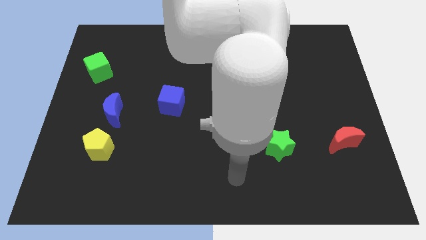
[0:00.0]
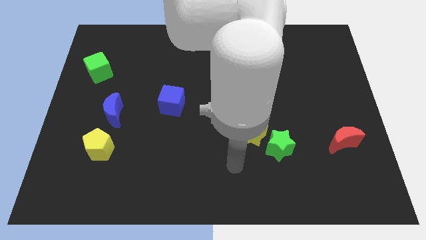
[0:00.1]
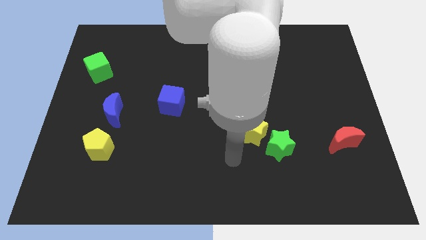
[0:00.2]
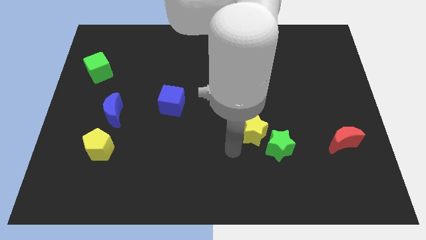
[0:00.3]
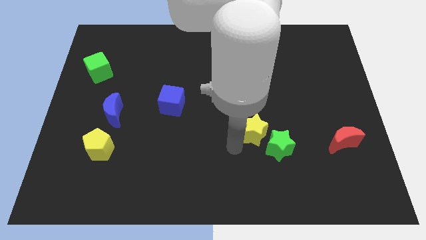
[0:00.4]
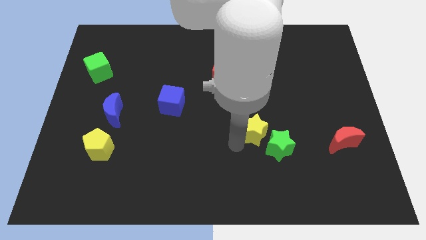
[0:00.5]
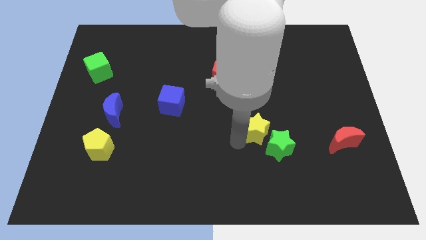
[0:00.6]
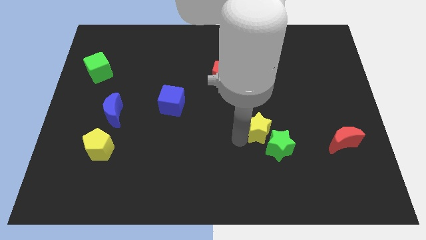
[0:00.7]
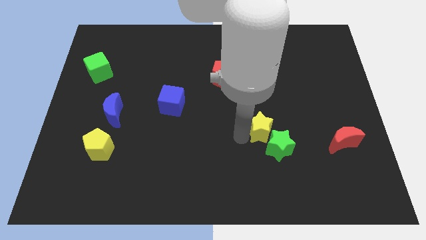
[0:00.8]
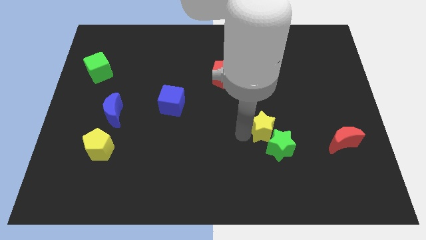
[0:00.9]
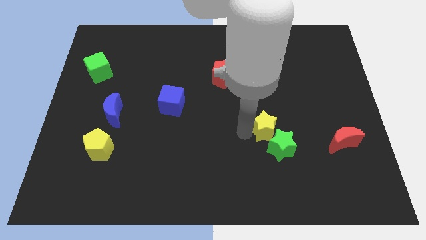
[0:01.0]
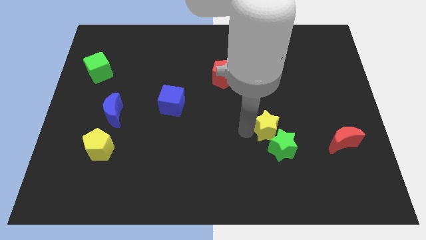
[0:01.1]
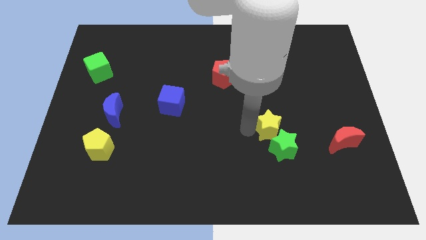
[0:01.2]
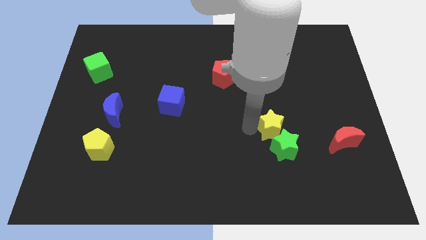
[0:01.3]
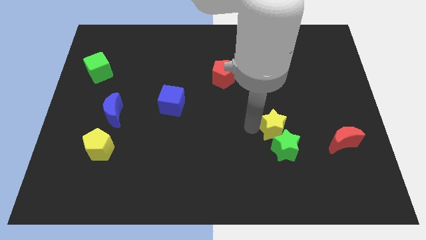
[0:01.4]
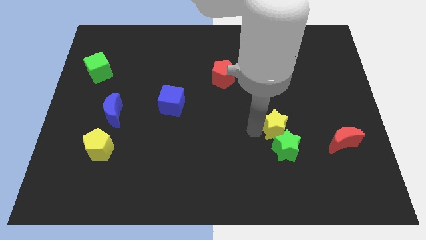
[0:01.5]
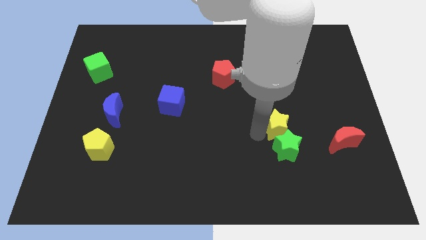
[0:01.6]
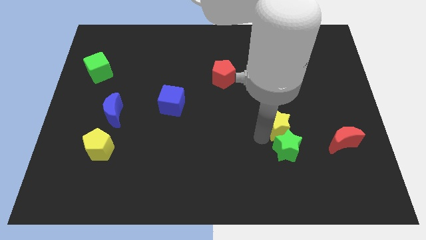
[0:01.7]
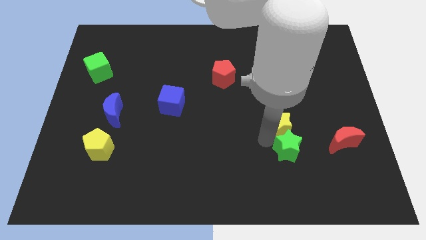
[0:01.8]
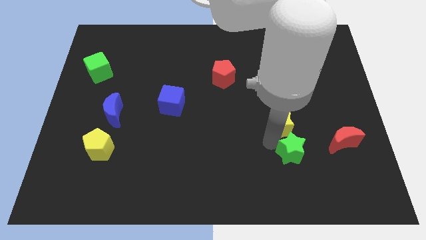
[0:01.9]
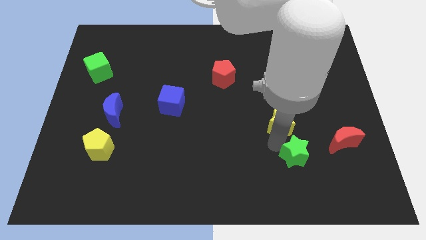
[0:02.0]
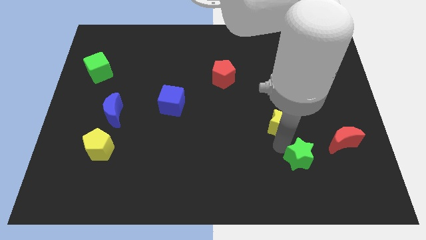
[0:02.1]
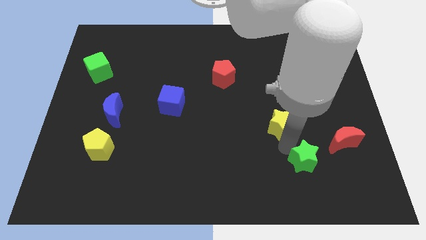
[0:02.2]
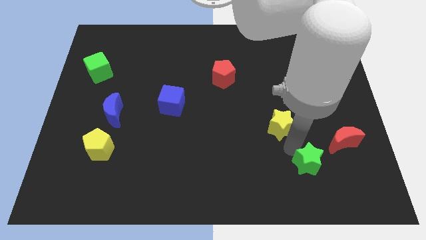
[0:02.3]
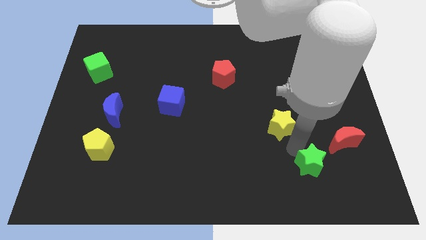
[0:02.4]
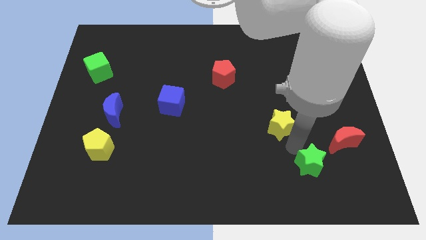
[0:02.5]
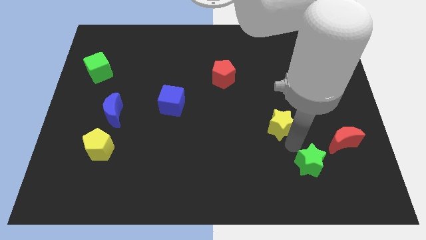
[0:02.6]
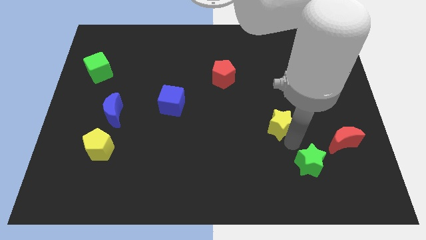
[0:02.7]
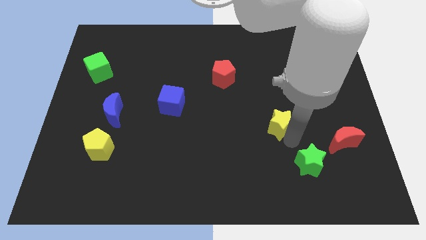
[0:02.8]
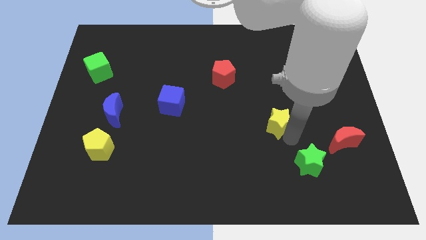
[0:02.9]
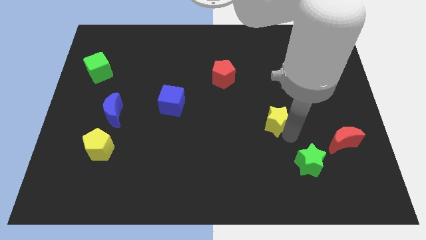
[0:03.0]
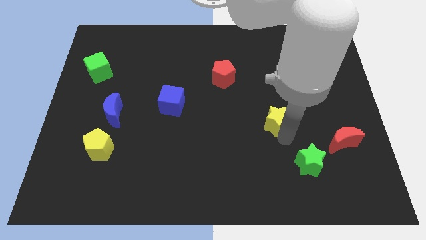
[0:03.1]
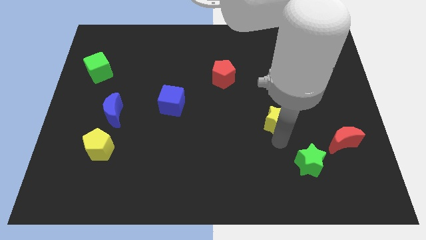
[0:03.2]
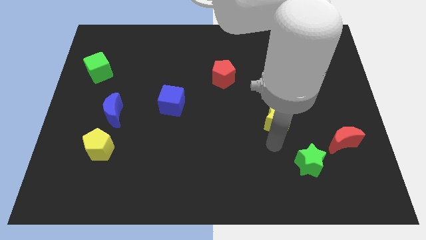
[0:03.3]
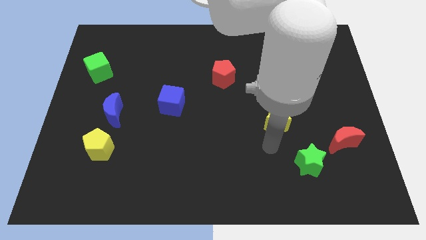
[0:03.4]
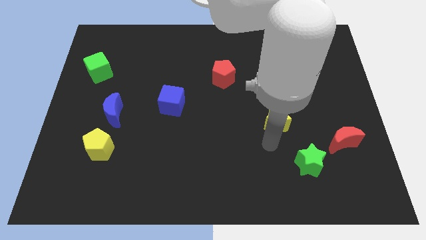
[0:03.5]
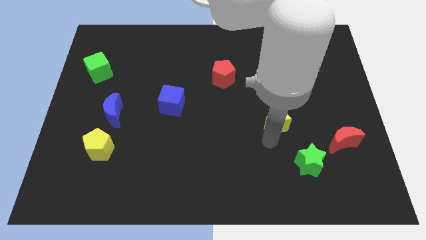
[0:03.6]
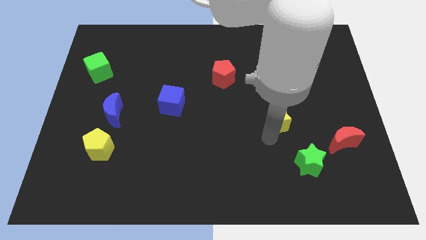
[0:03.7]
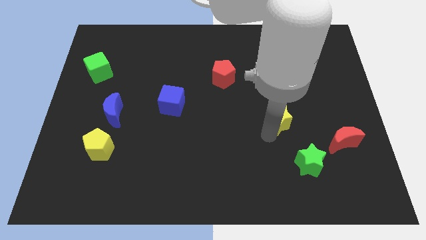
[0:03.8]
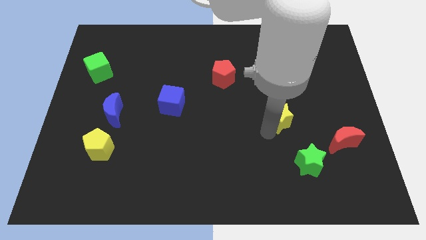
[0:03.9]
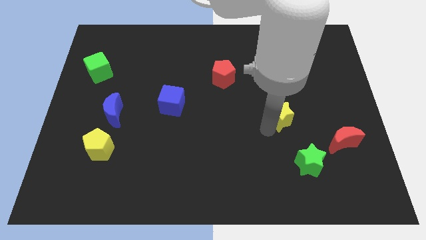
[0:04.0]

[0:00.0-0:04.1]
slightly move the yellow star up and then to the right

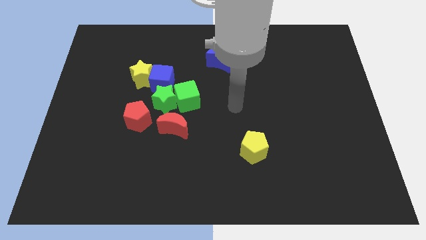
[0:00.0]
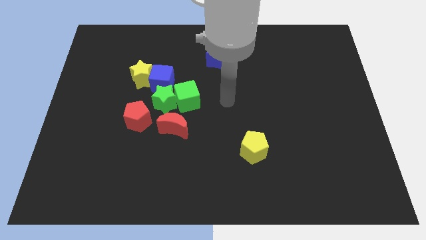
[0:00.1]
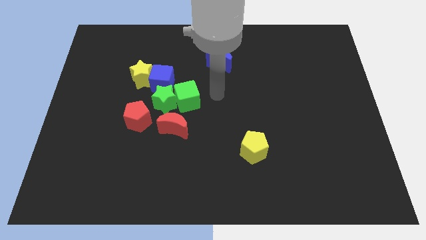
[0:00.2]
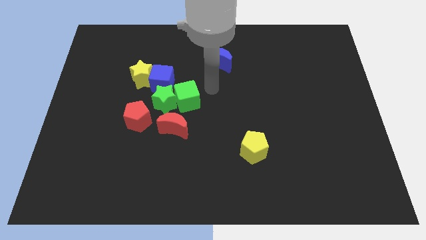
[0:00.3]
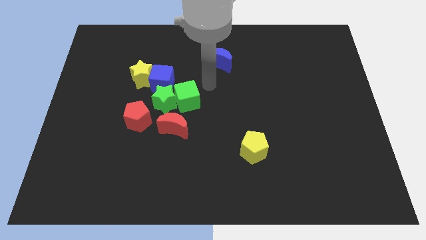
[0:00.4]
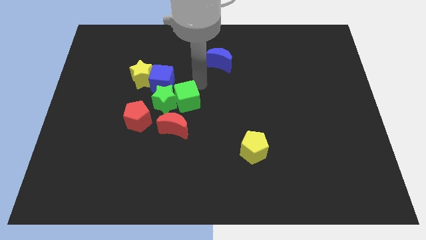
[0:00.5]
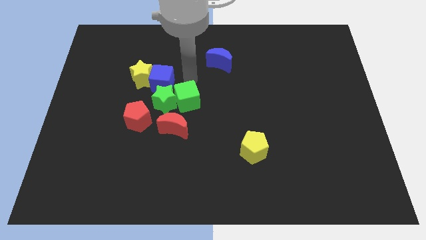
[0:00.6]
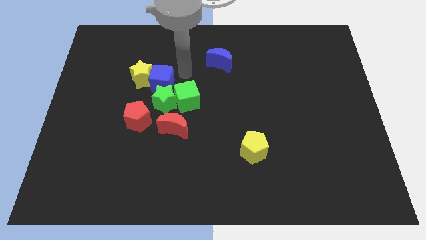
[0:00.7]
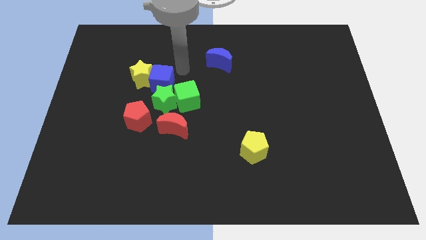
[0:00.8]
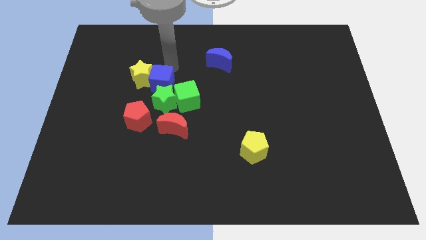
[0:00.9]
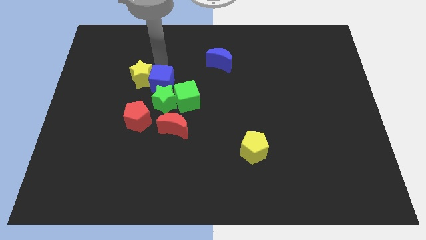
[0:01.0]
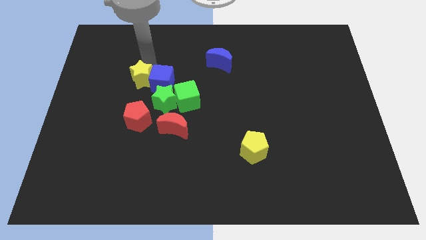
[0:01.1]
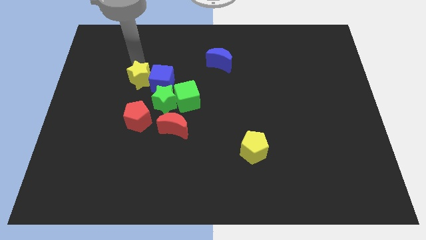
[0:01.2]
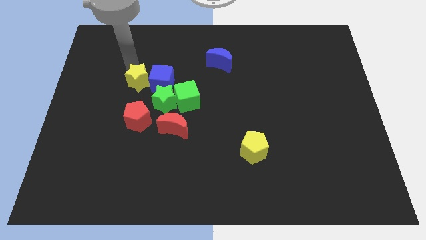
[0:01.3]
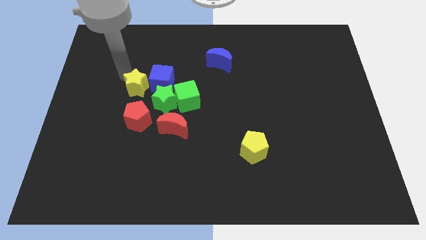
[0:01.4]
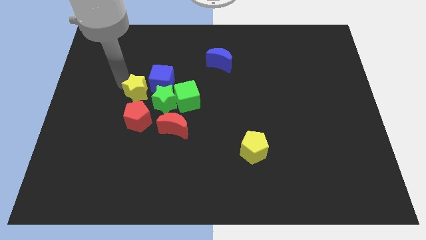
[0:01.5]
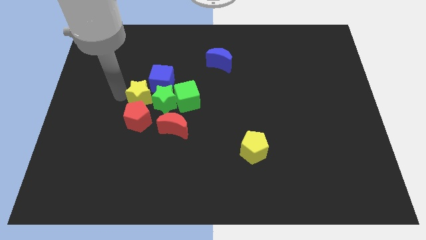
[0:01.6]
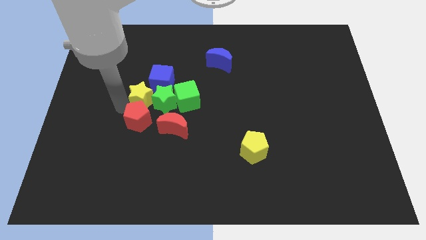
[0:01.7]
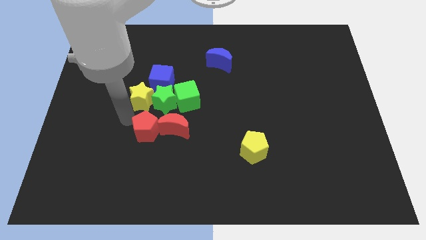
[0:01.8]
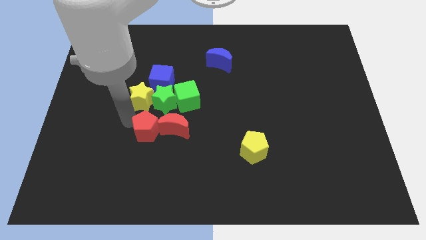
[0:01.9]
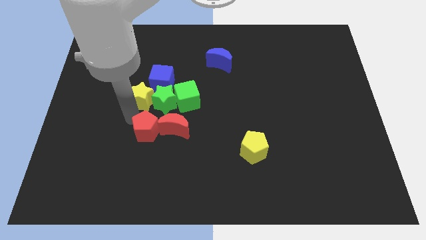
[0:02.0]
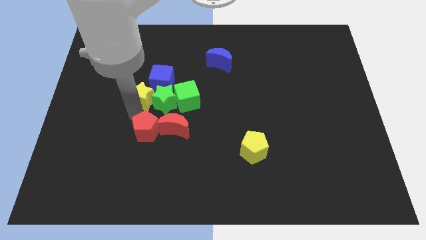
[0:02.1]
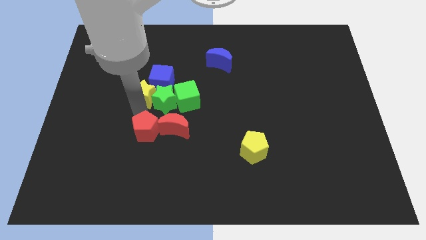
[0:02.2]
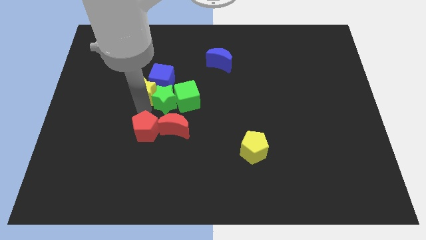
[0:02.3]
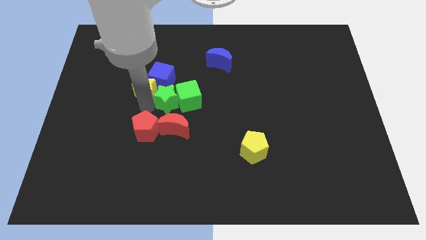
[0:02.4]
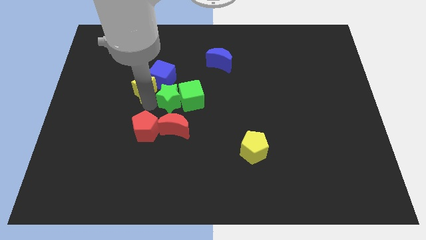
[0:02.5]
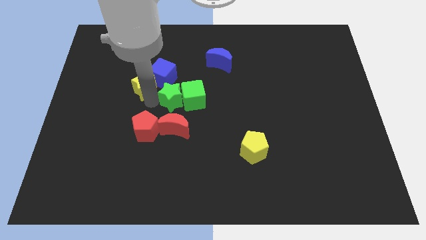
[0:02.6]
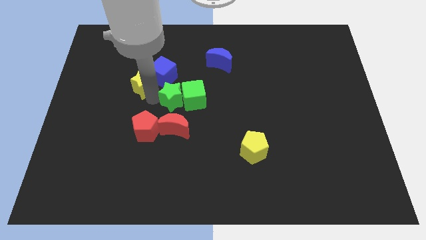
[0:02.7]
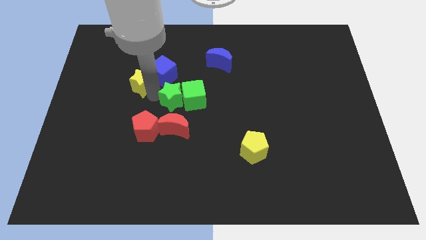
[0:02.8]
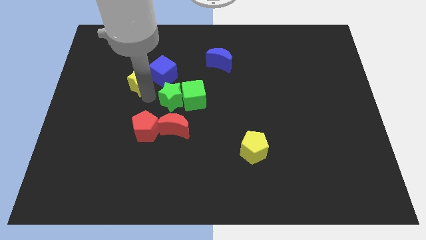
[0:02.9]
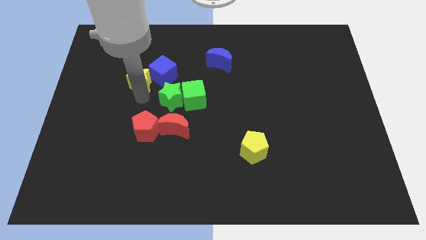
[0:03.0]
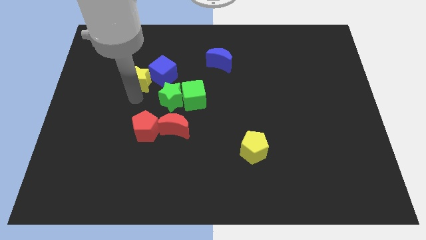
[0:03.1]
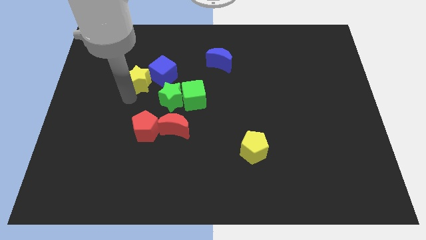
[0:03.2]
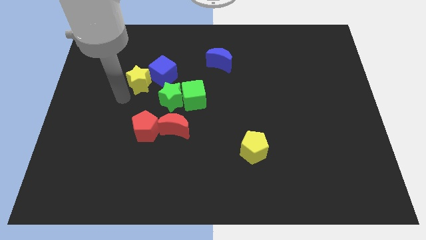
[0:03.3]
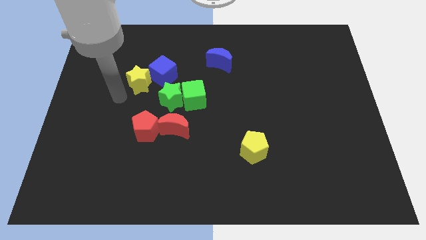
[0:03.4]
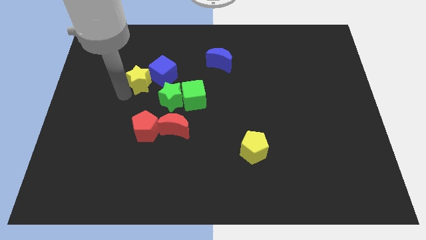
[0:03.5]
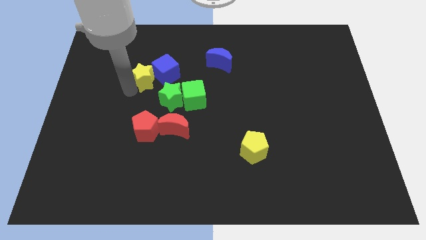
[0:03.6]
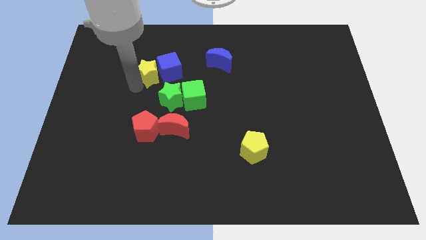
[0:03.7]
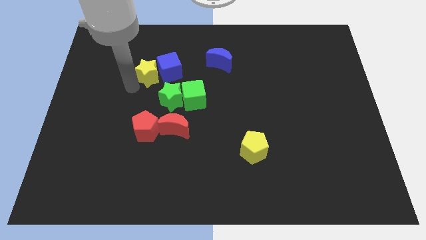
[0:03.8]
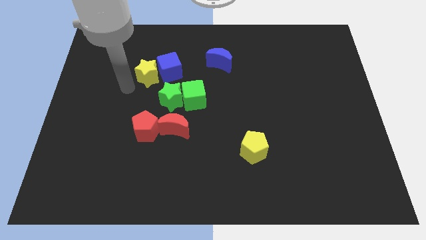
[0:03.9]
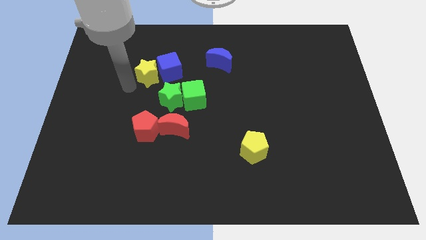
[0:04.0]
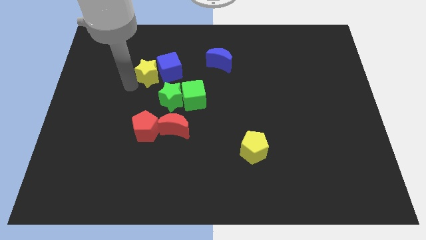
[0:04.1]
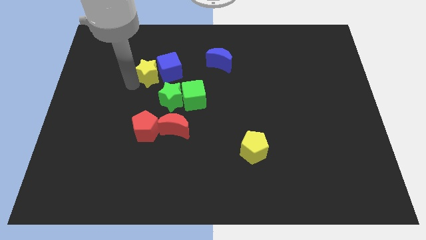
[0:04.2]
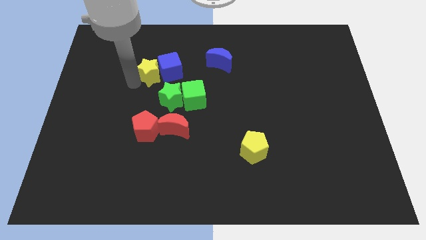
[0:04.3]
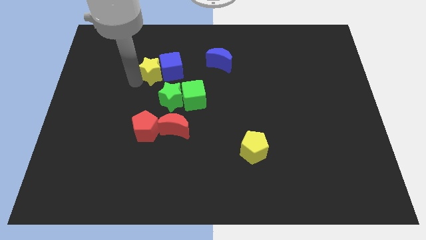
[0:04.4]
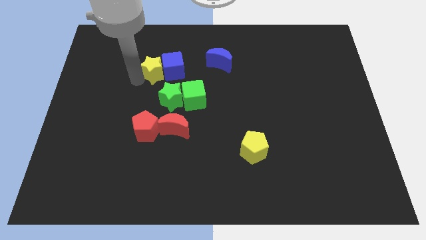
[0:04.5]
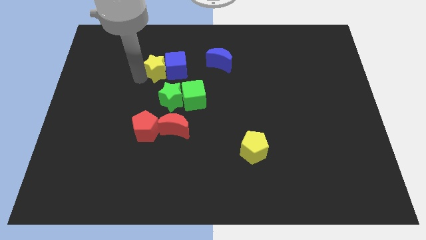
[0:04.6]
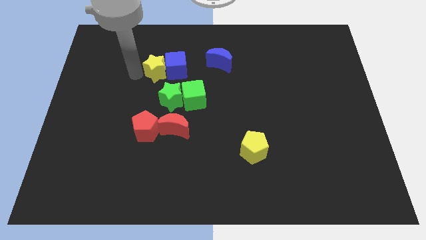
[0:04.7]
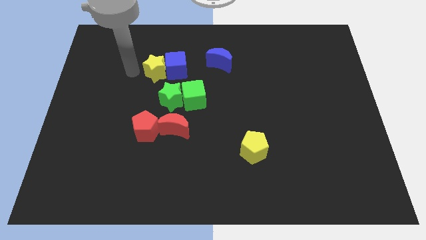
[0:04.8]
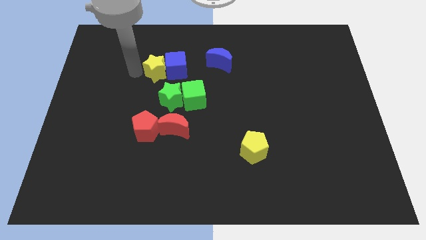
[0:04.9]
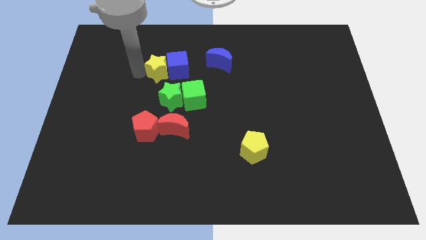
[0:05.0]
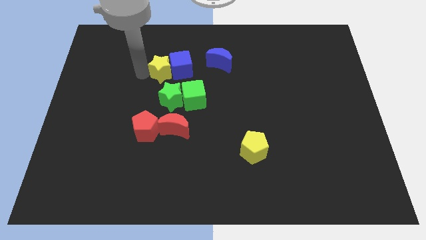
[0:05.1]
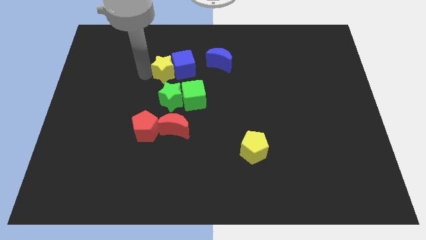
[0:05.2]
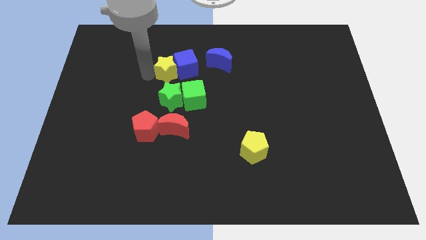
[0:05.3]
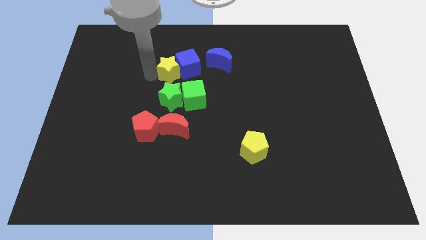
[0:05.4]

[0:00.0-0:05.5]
push the yellow star right a little bit
